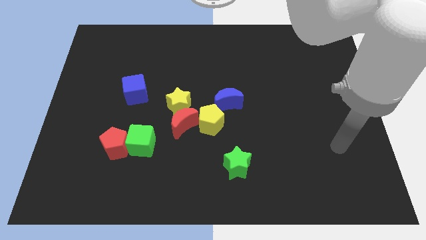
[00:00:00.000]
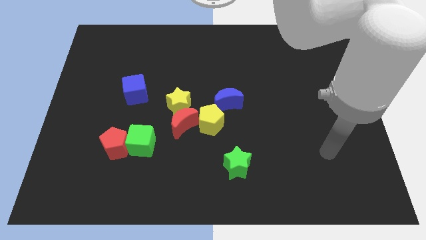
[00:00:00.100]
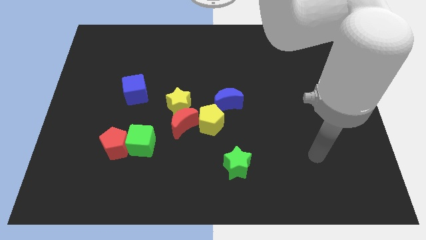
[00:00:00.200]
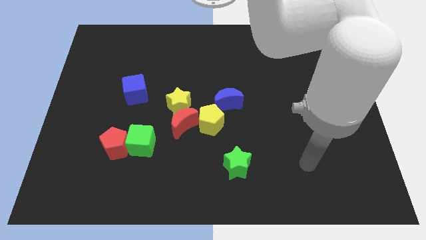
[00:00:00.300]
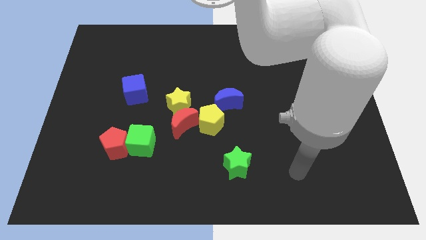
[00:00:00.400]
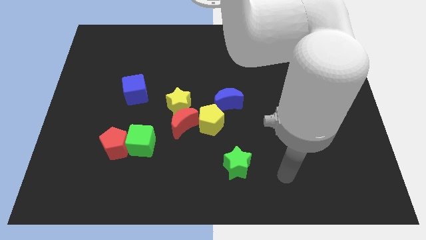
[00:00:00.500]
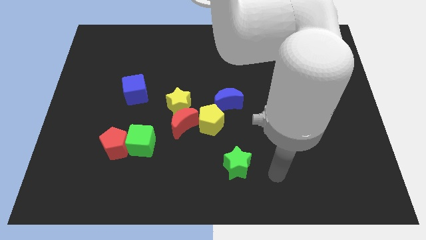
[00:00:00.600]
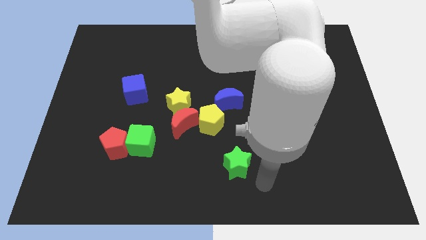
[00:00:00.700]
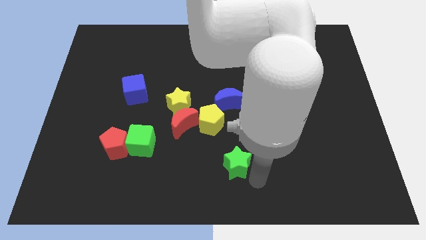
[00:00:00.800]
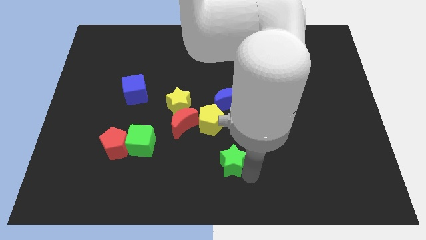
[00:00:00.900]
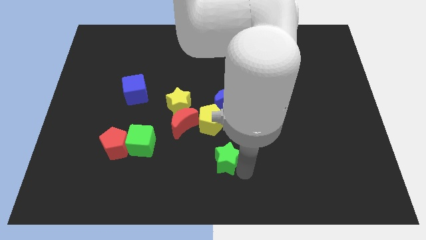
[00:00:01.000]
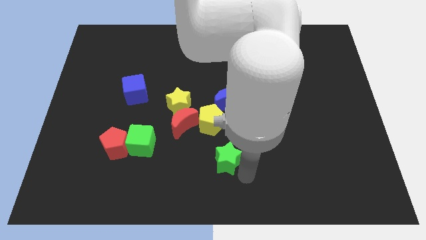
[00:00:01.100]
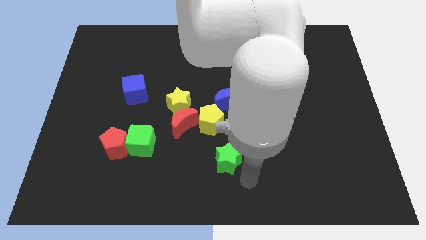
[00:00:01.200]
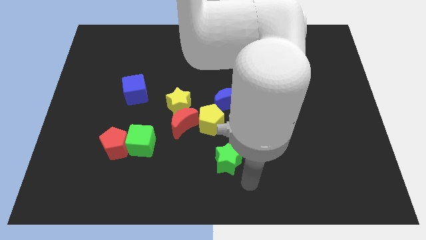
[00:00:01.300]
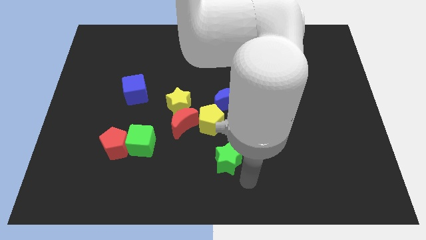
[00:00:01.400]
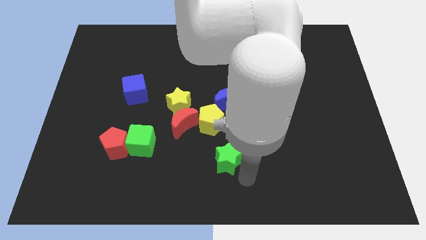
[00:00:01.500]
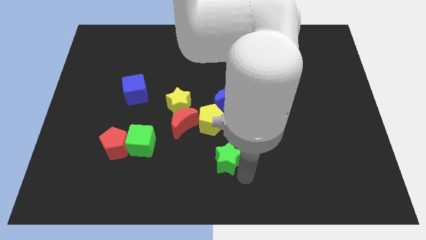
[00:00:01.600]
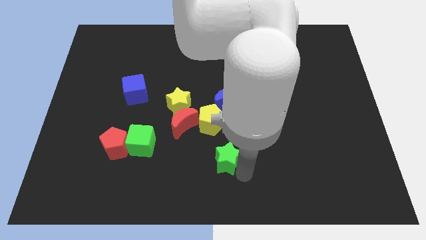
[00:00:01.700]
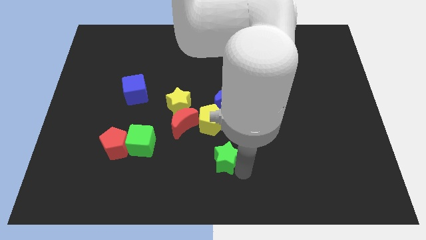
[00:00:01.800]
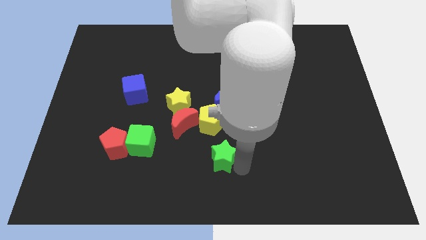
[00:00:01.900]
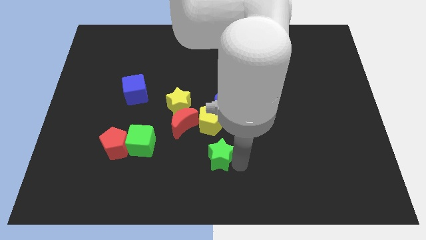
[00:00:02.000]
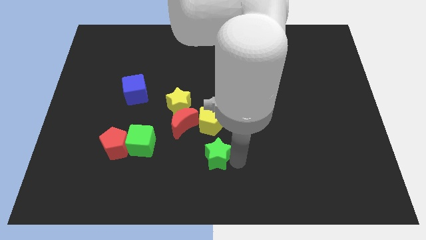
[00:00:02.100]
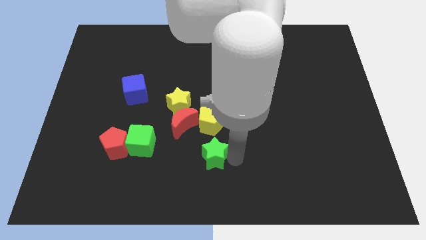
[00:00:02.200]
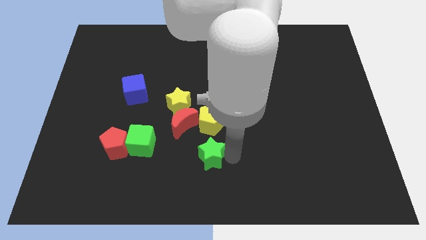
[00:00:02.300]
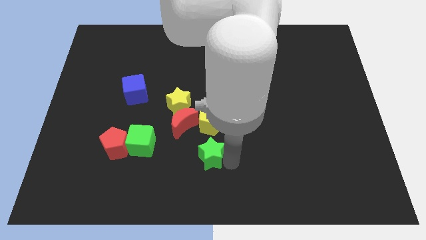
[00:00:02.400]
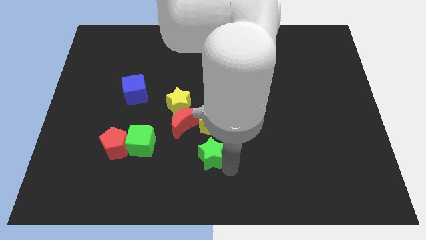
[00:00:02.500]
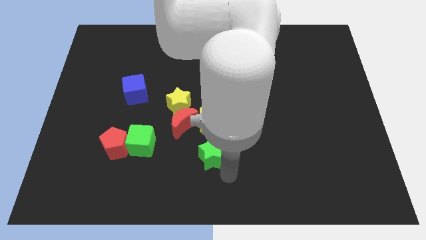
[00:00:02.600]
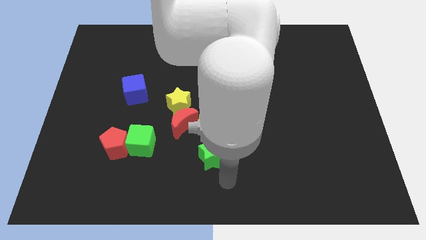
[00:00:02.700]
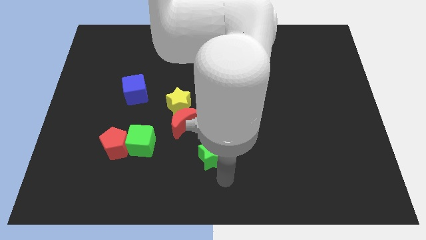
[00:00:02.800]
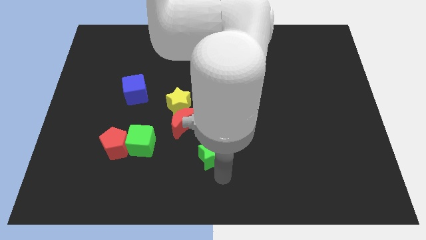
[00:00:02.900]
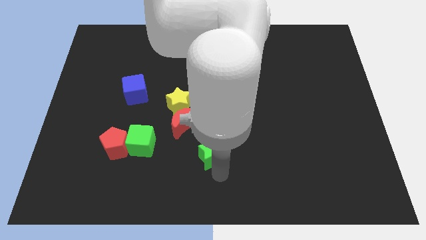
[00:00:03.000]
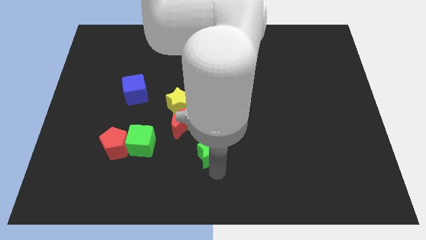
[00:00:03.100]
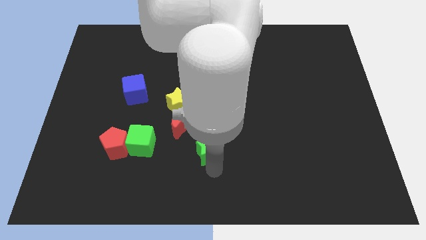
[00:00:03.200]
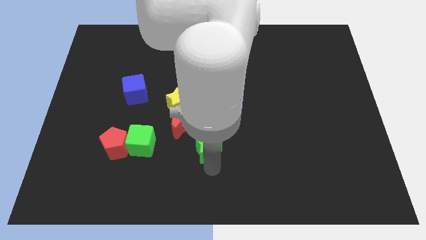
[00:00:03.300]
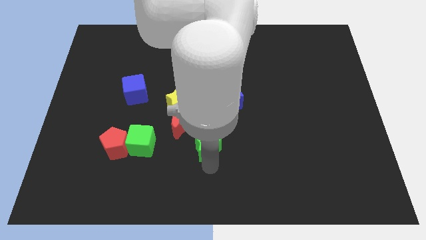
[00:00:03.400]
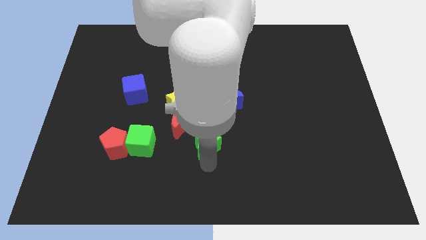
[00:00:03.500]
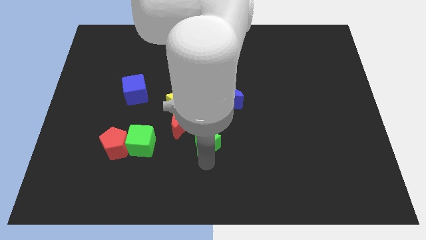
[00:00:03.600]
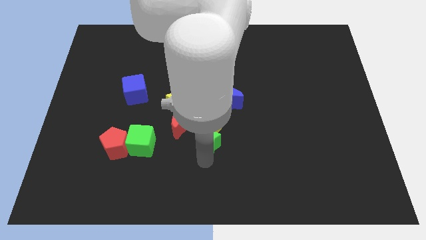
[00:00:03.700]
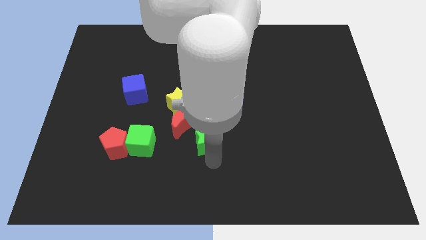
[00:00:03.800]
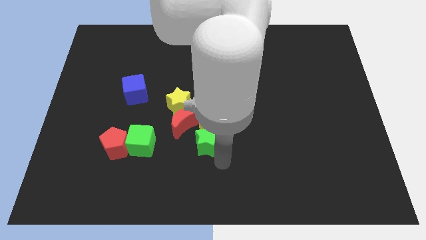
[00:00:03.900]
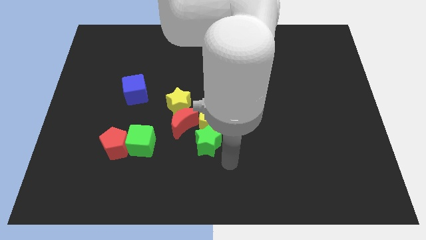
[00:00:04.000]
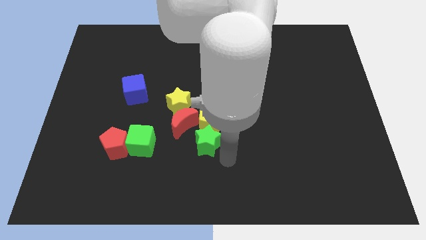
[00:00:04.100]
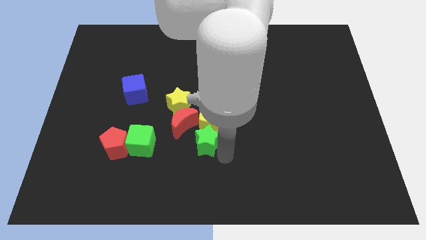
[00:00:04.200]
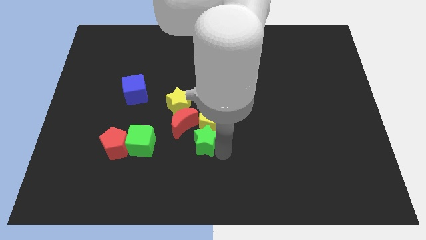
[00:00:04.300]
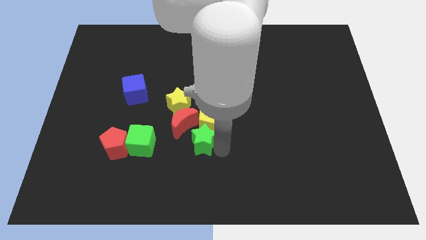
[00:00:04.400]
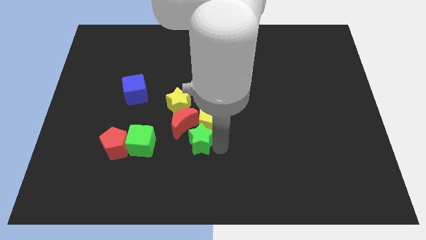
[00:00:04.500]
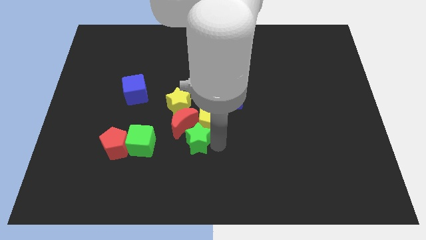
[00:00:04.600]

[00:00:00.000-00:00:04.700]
slide the green star to the red moon

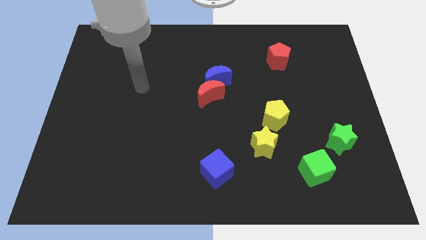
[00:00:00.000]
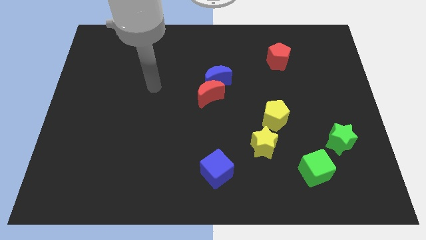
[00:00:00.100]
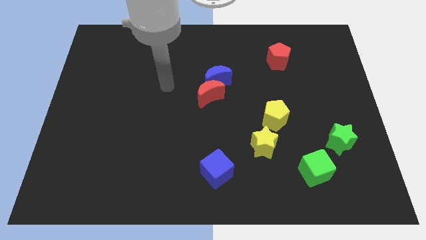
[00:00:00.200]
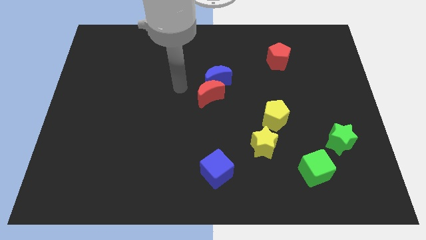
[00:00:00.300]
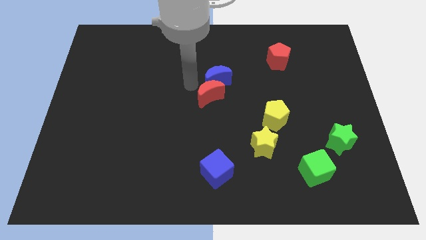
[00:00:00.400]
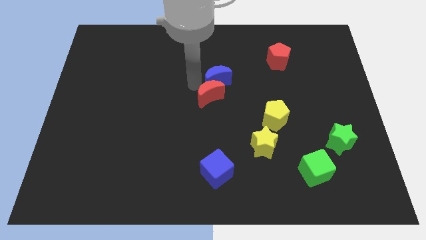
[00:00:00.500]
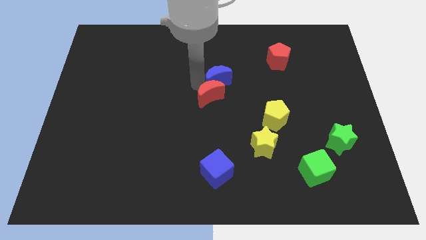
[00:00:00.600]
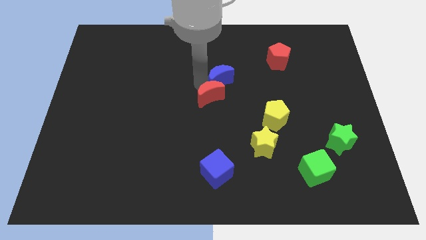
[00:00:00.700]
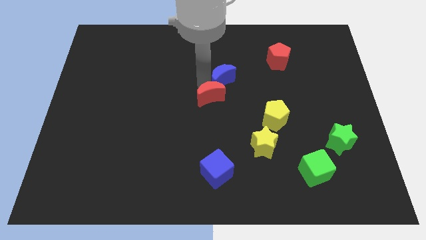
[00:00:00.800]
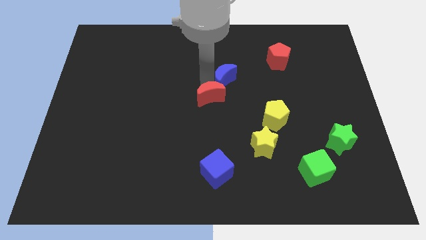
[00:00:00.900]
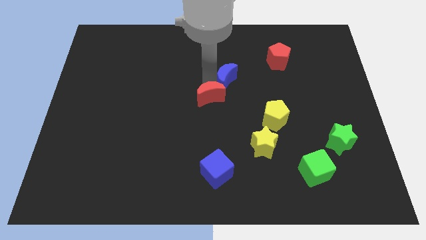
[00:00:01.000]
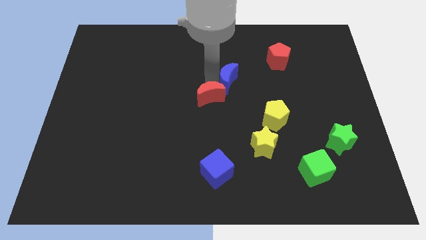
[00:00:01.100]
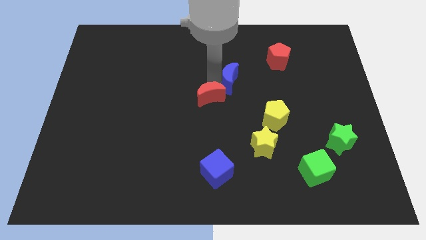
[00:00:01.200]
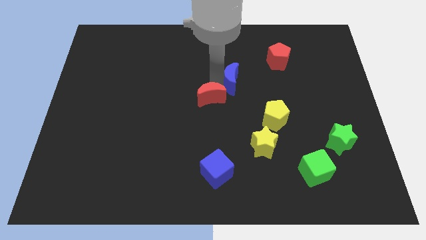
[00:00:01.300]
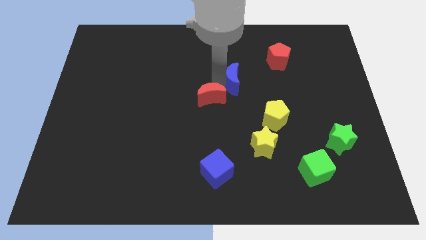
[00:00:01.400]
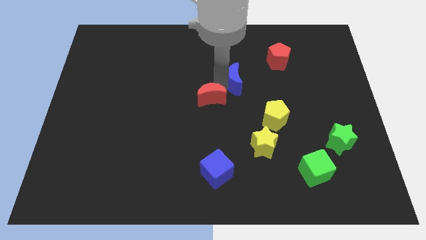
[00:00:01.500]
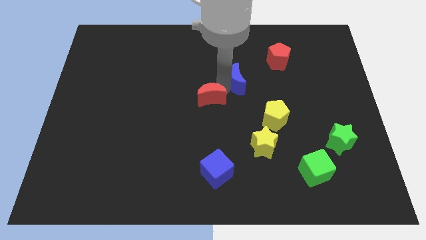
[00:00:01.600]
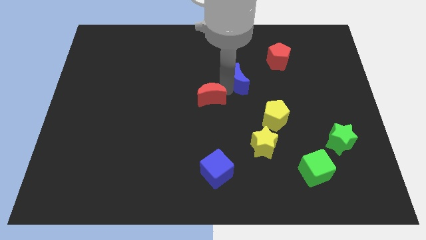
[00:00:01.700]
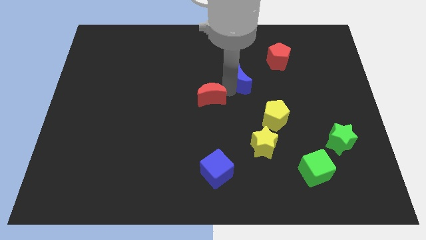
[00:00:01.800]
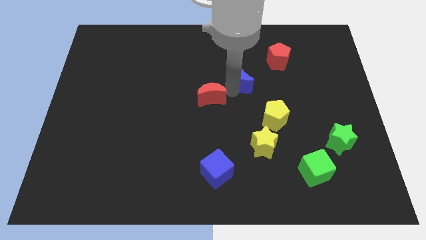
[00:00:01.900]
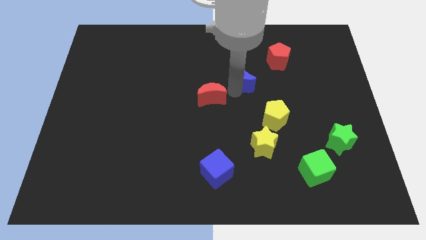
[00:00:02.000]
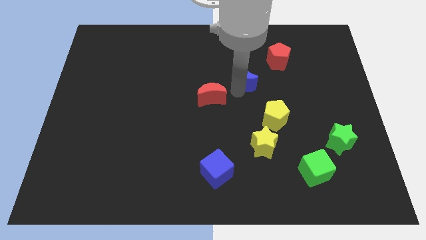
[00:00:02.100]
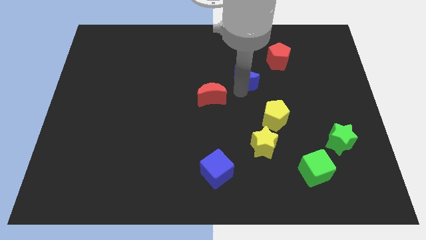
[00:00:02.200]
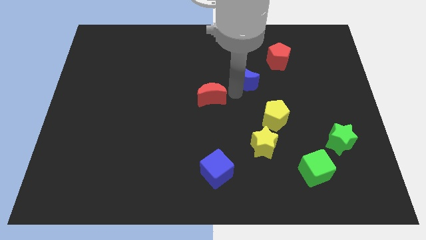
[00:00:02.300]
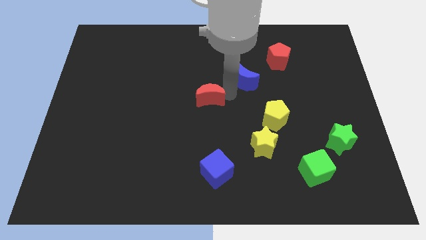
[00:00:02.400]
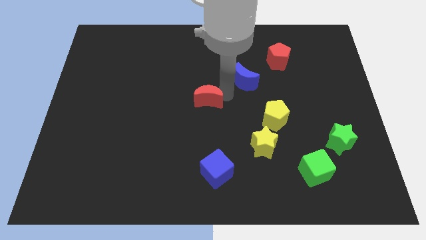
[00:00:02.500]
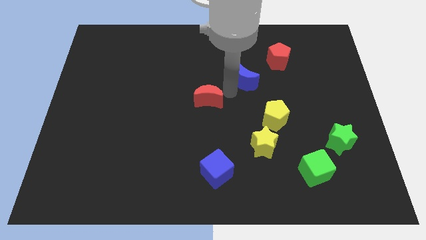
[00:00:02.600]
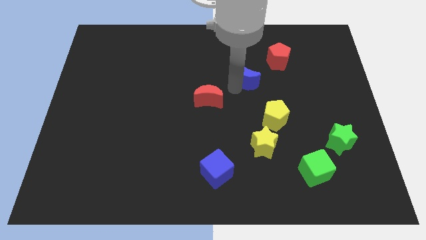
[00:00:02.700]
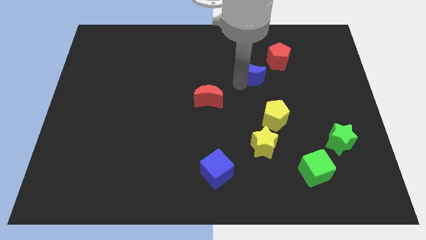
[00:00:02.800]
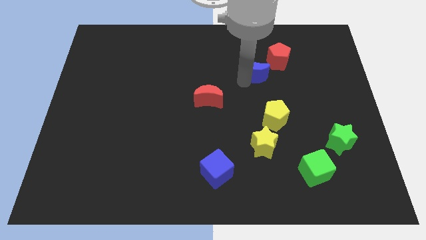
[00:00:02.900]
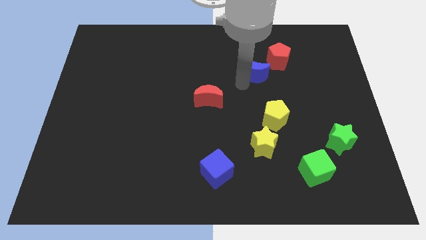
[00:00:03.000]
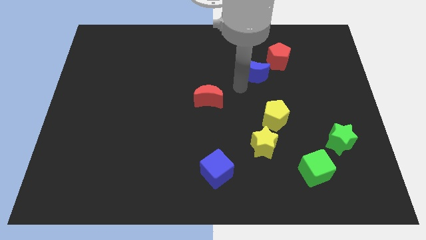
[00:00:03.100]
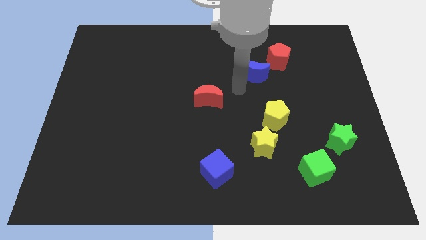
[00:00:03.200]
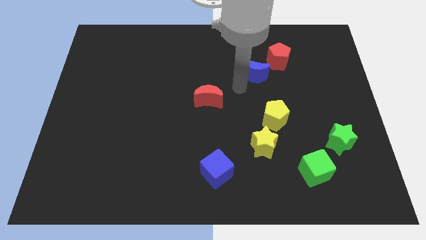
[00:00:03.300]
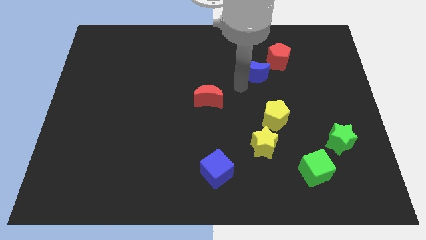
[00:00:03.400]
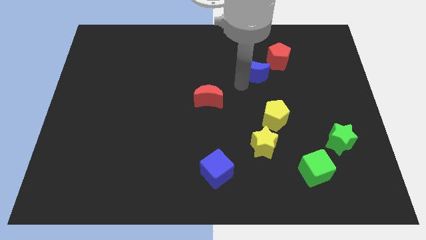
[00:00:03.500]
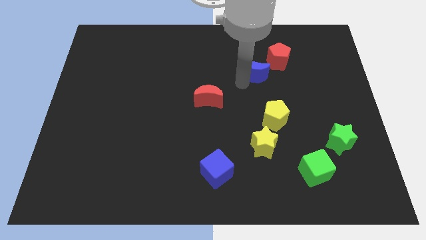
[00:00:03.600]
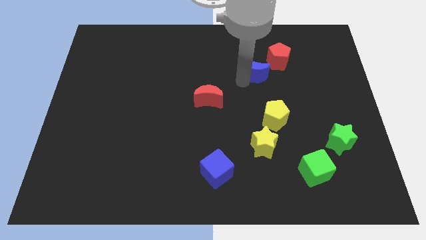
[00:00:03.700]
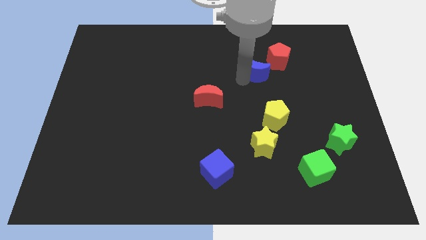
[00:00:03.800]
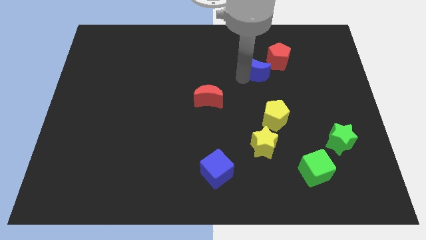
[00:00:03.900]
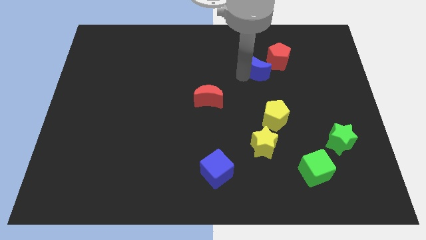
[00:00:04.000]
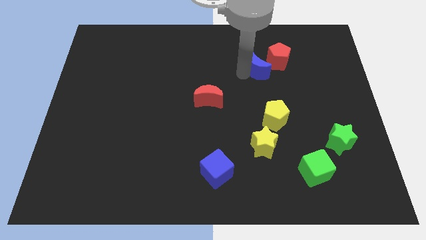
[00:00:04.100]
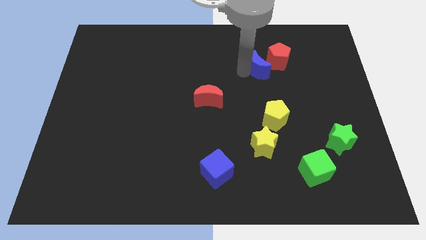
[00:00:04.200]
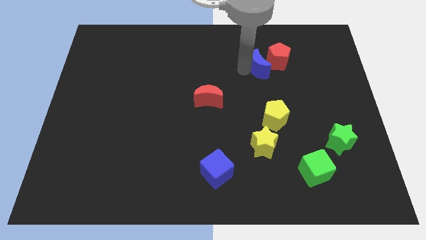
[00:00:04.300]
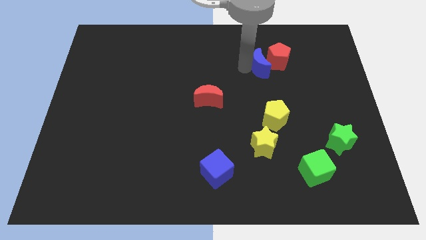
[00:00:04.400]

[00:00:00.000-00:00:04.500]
move the blue moon next to the red pentagon
